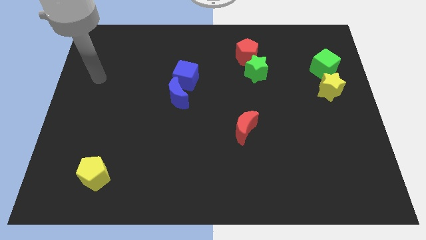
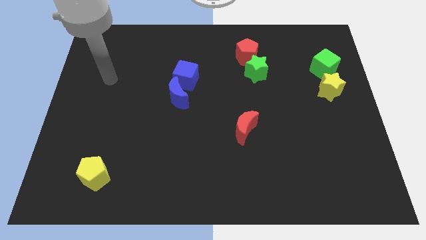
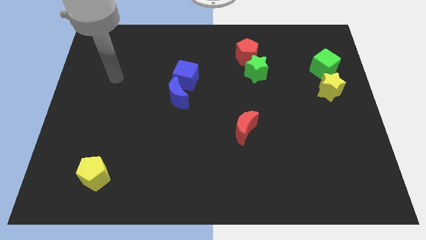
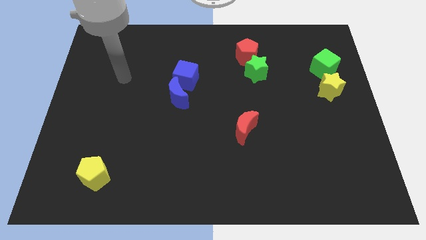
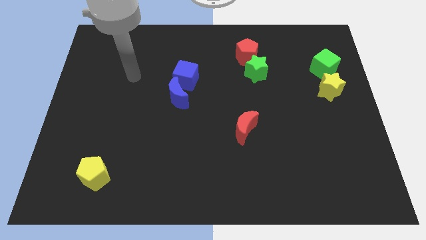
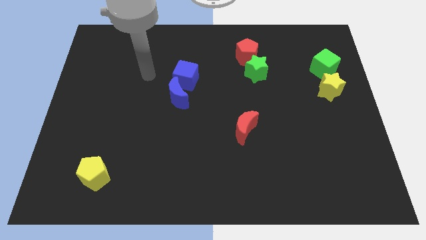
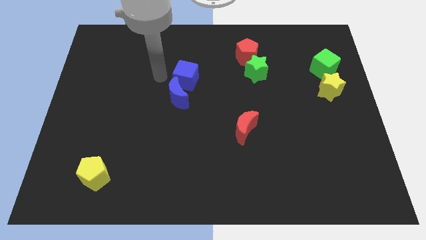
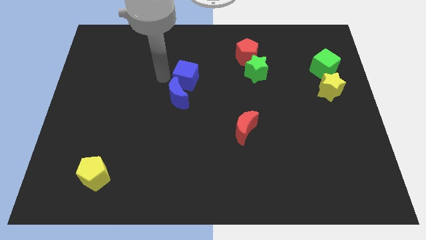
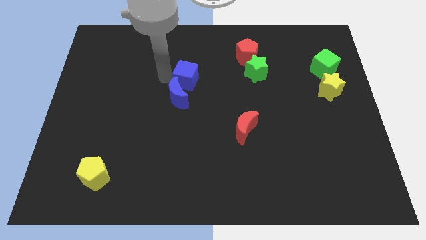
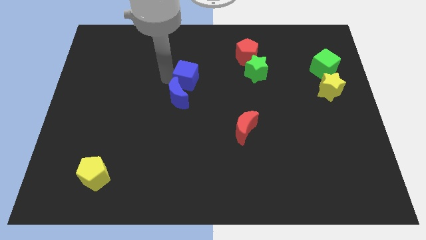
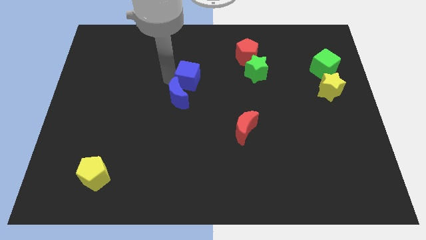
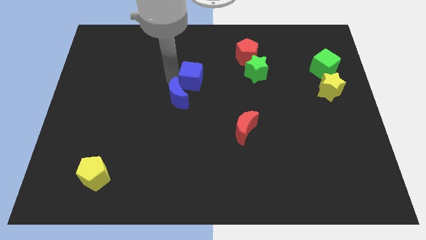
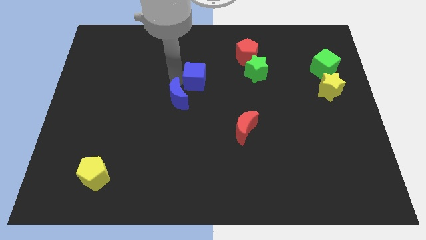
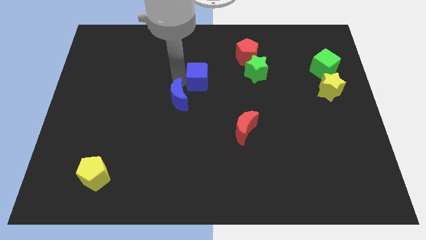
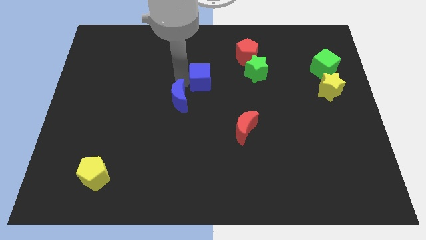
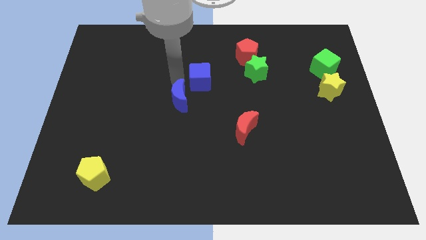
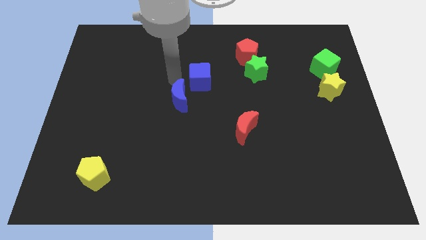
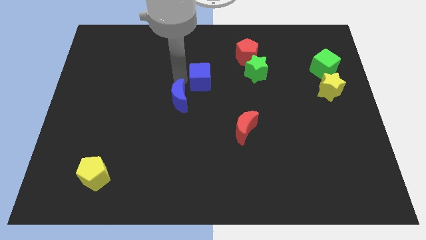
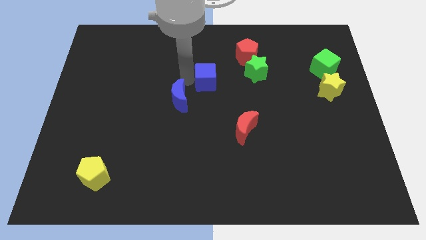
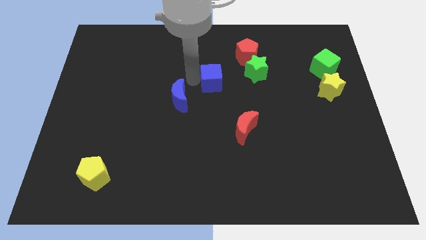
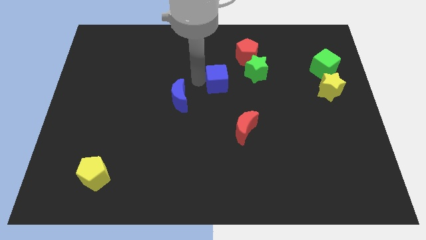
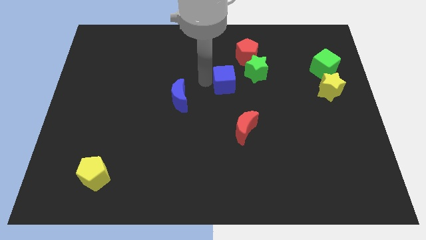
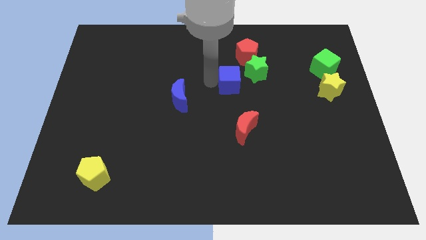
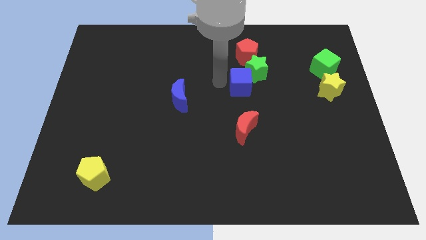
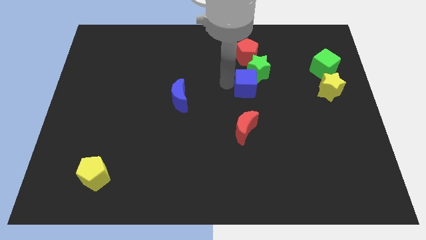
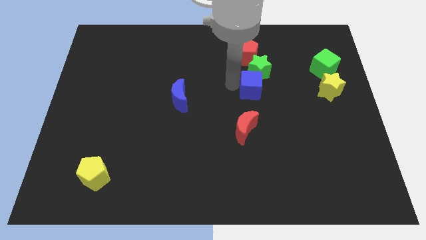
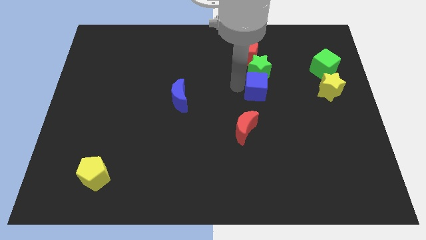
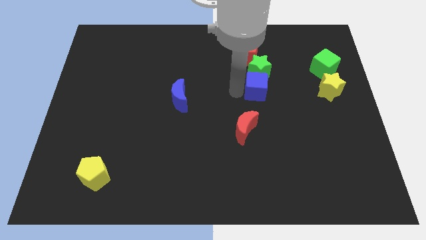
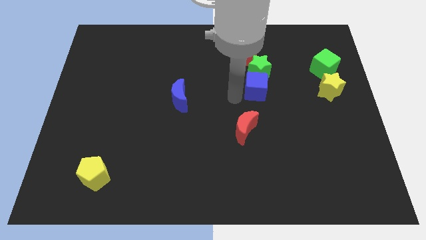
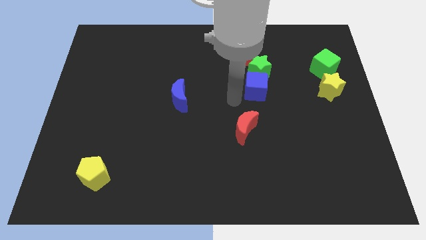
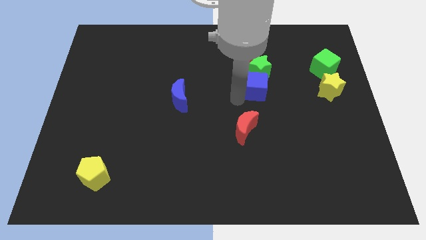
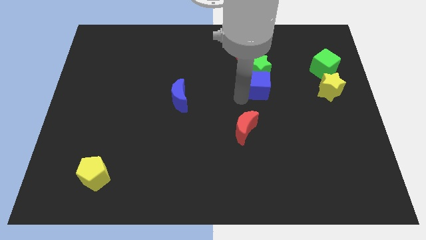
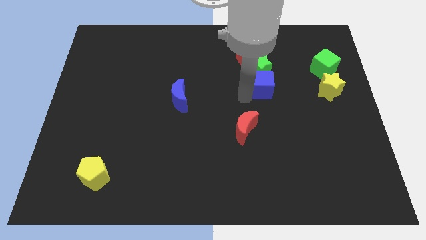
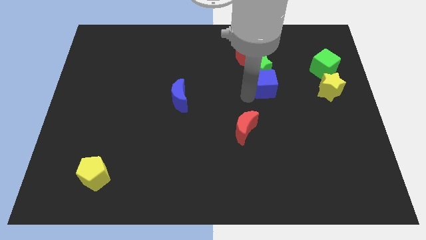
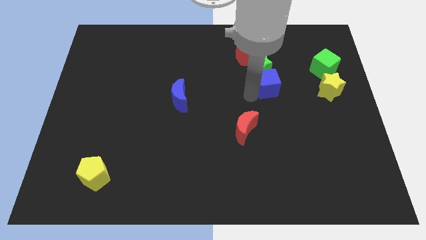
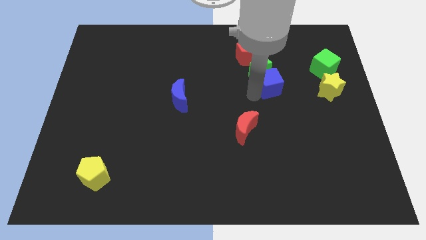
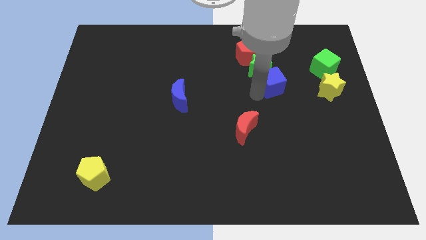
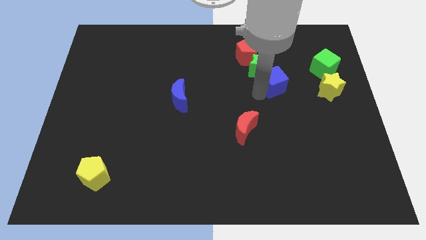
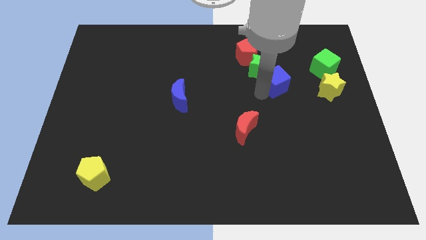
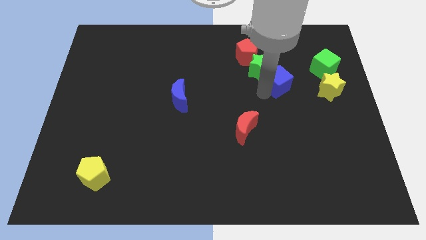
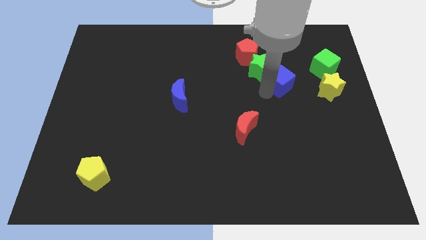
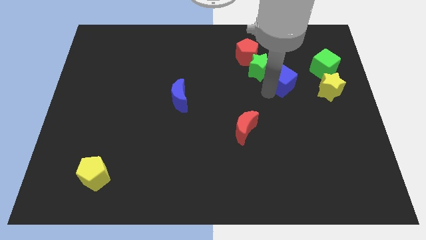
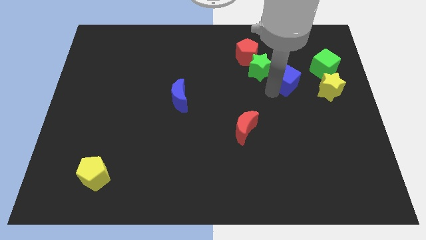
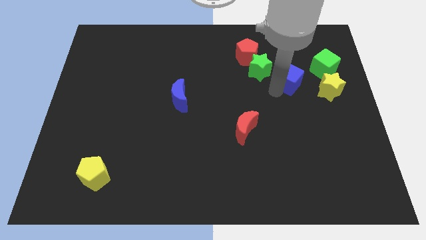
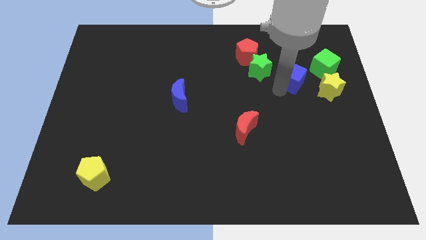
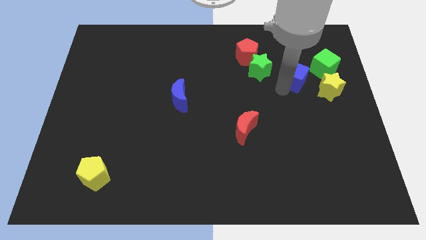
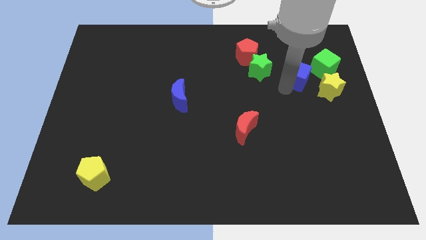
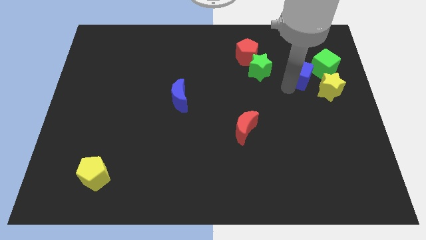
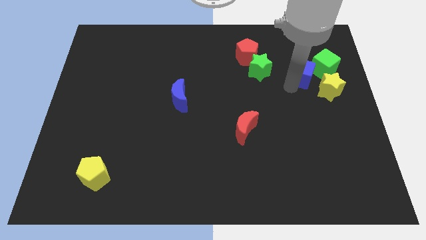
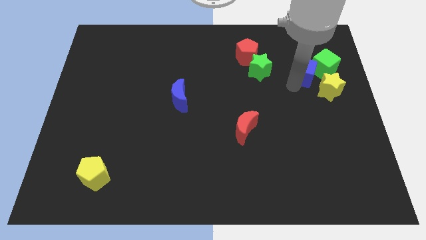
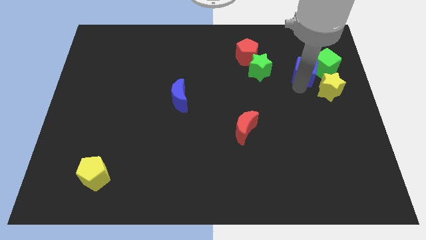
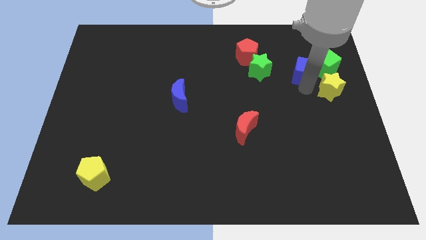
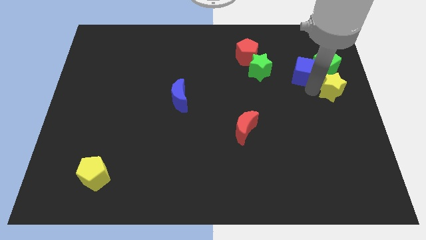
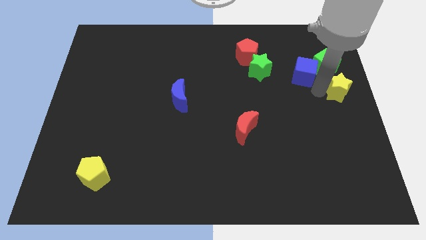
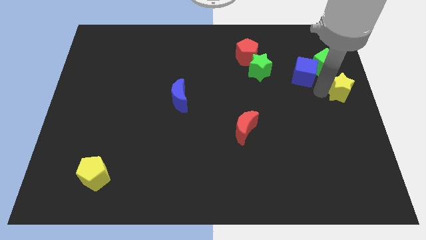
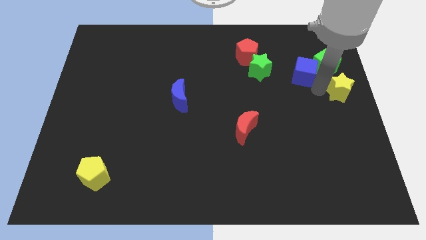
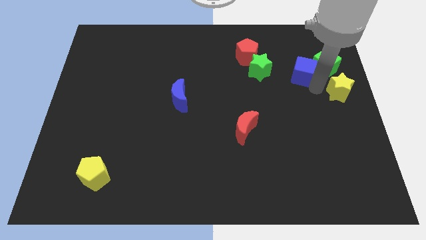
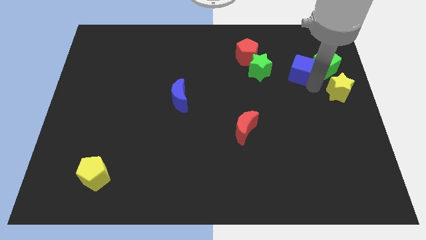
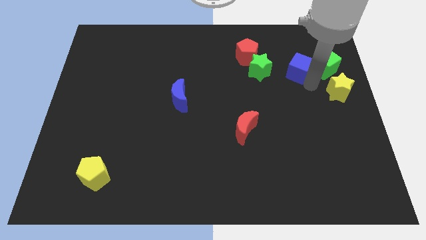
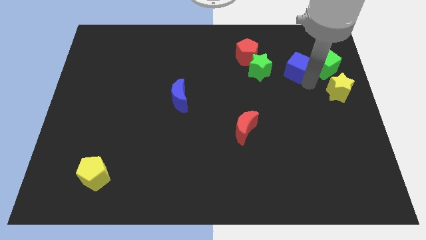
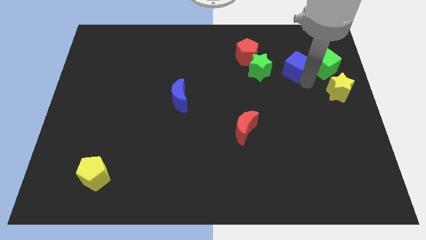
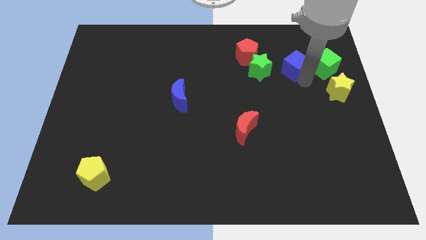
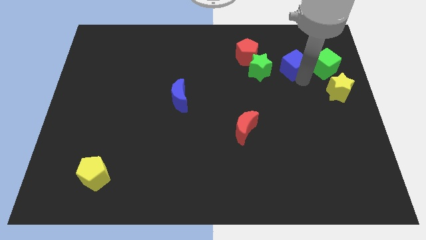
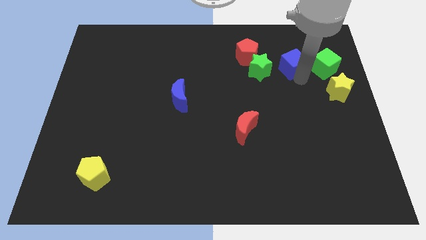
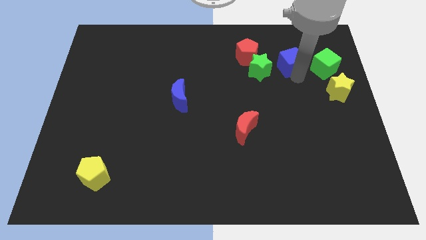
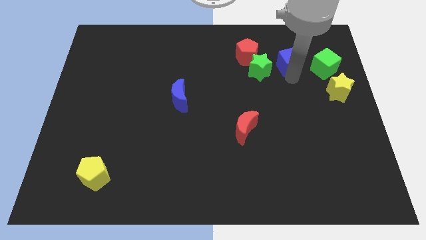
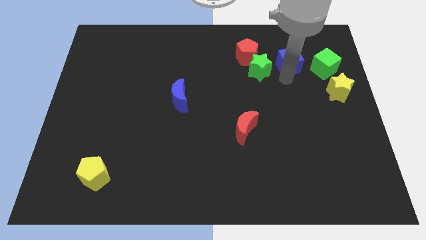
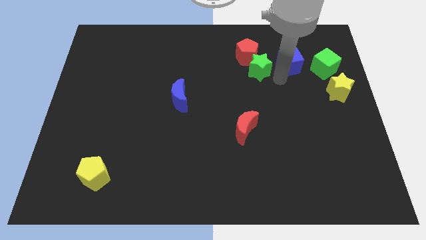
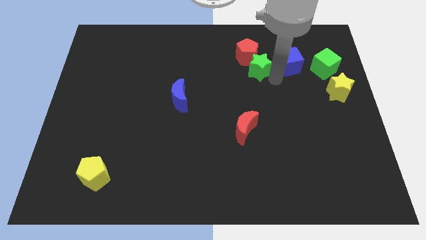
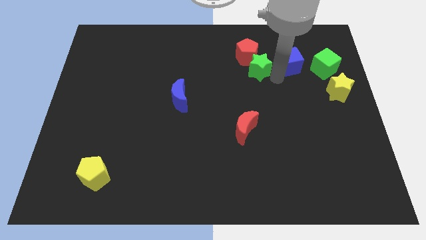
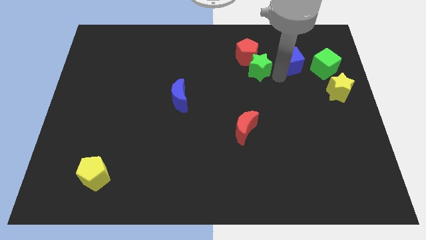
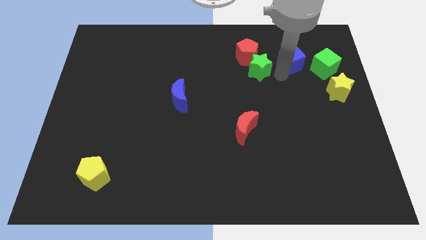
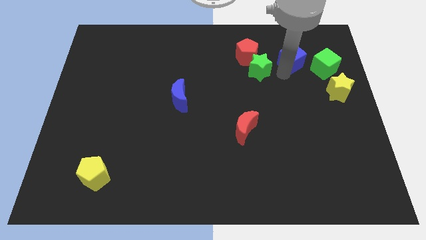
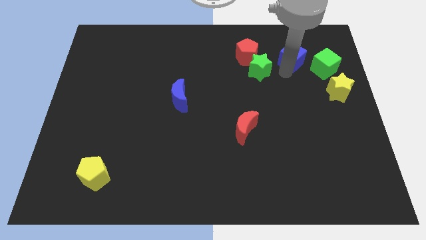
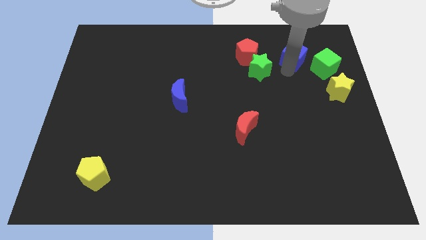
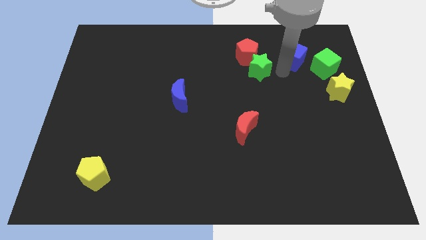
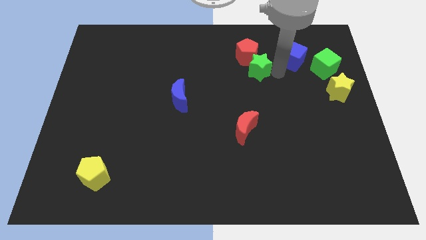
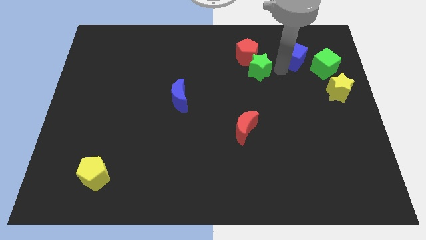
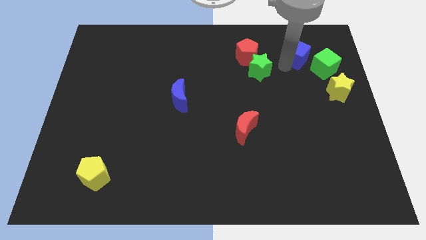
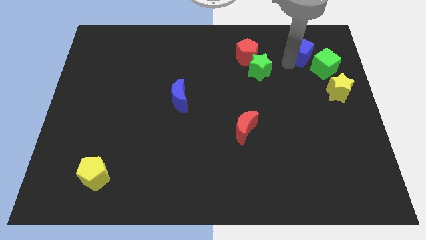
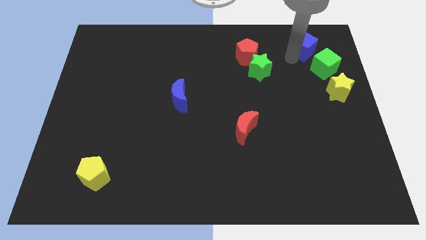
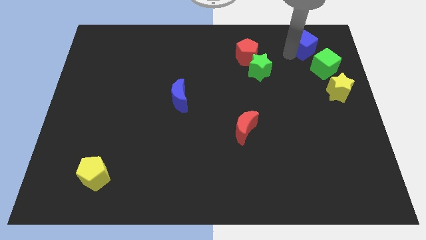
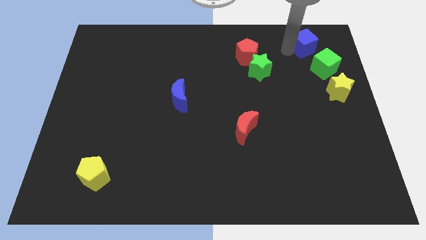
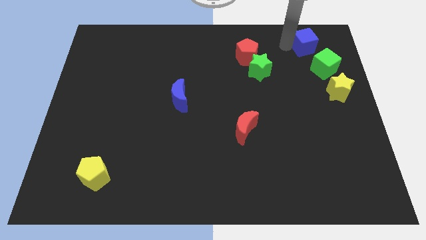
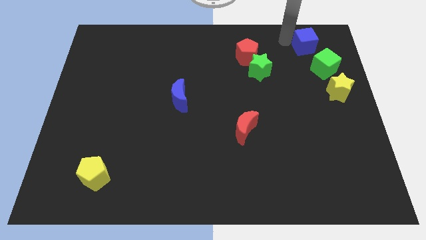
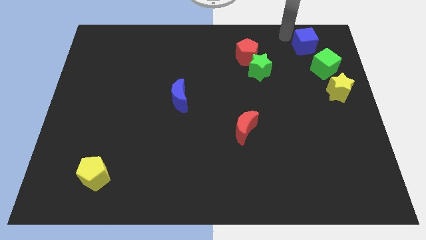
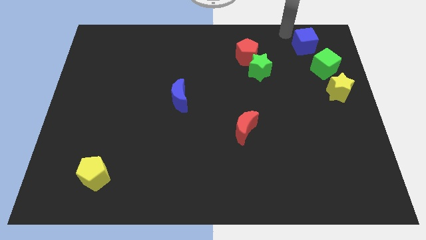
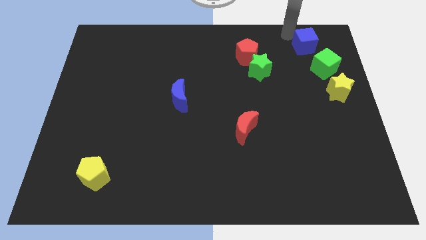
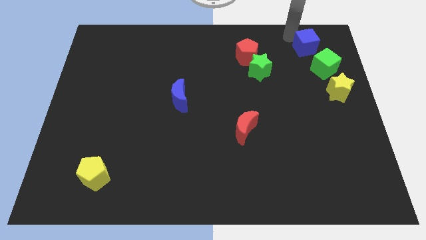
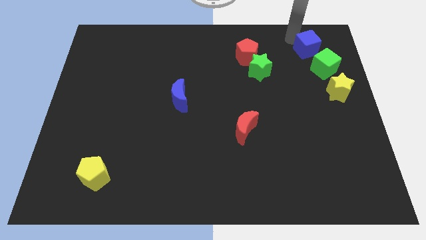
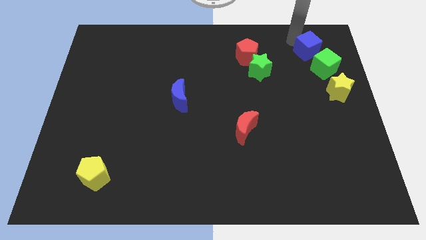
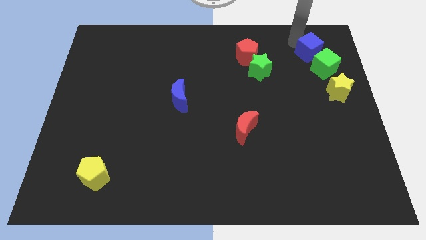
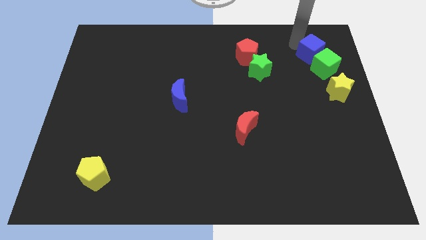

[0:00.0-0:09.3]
move the blue cube above the yellow star
